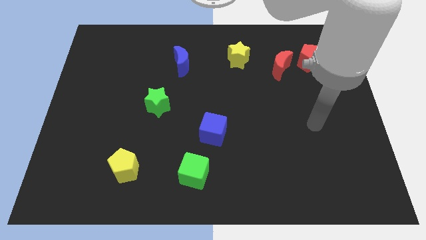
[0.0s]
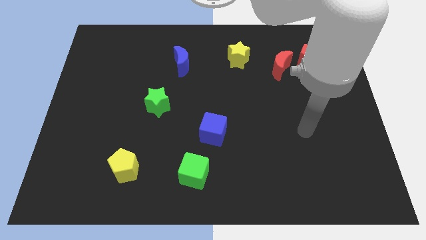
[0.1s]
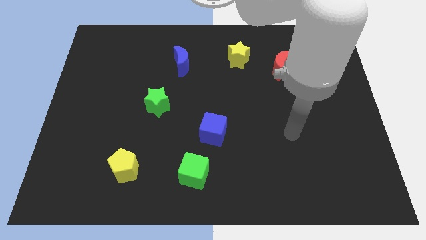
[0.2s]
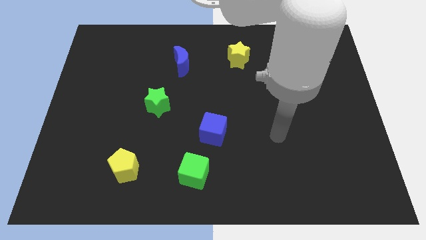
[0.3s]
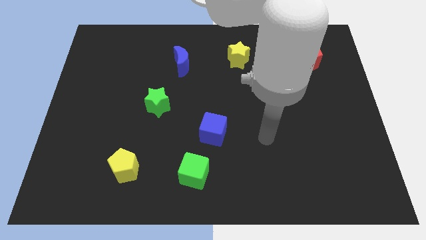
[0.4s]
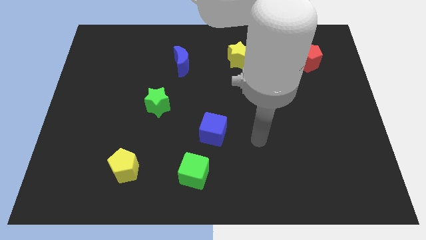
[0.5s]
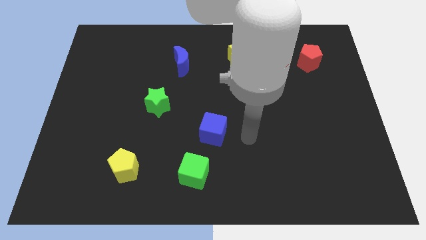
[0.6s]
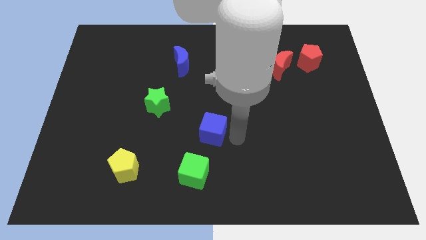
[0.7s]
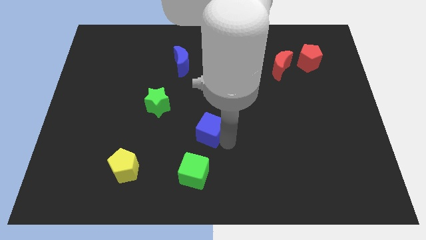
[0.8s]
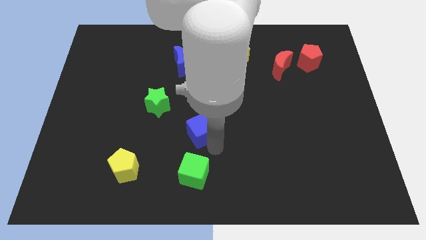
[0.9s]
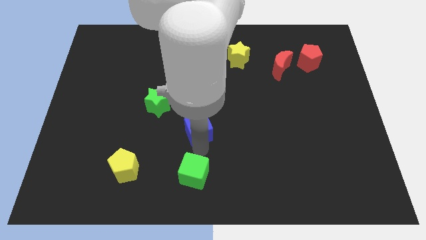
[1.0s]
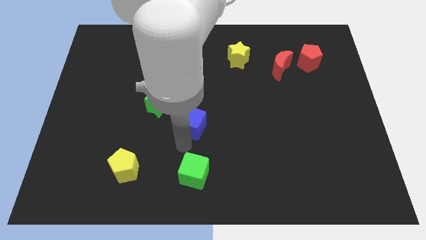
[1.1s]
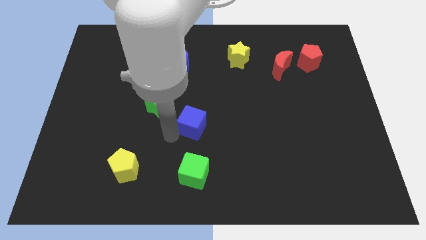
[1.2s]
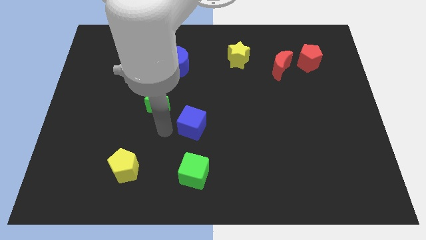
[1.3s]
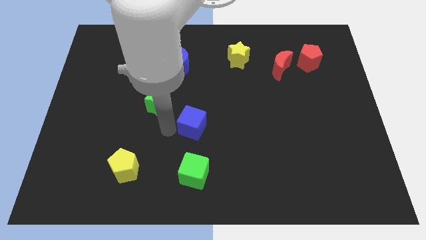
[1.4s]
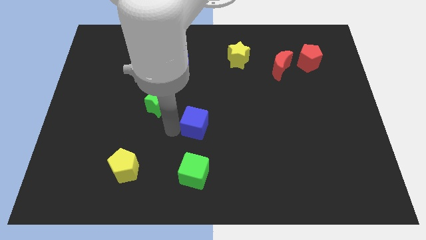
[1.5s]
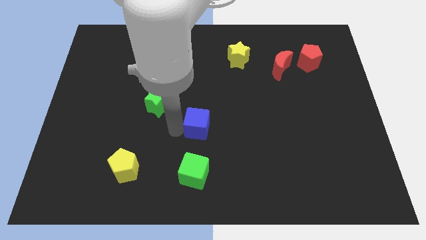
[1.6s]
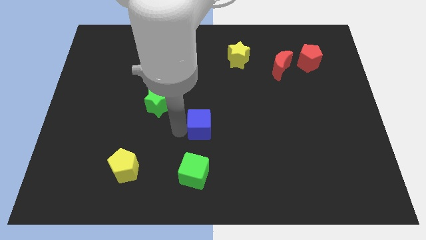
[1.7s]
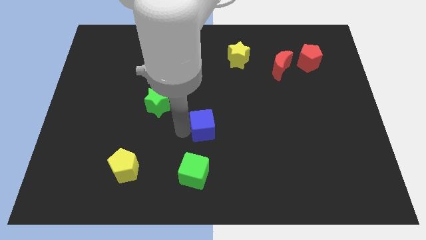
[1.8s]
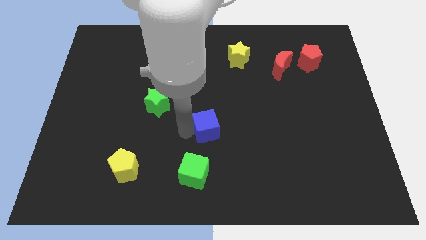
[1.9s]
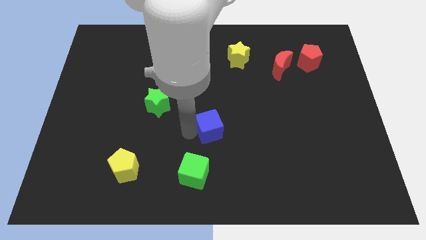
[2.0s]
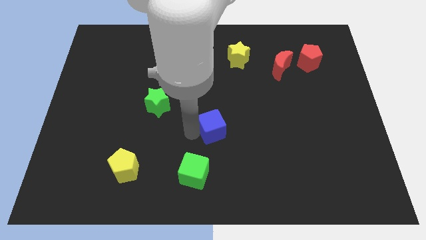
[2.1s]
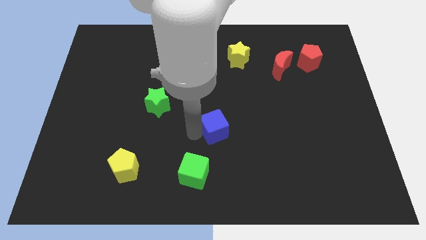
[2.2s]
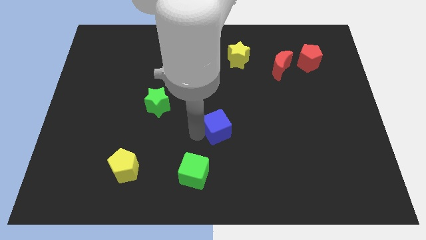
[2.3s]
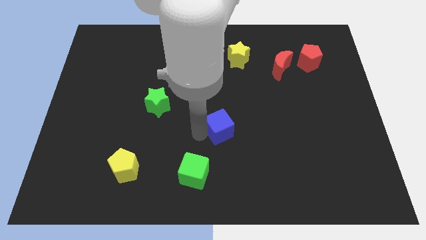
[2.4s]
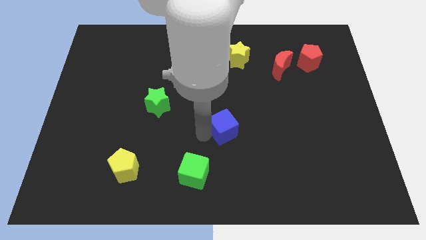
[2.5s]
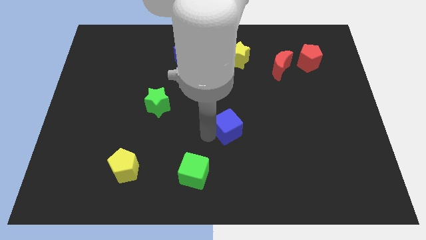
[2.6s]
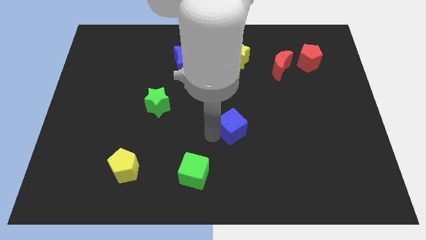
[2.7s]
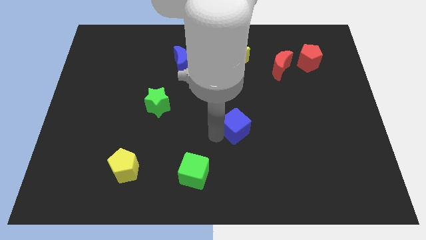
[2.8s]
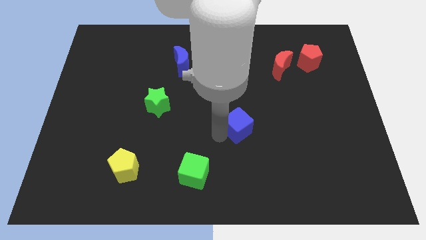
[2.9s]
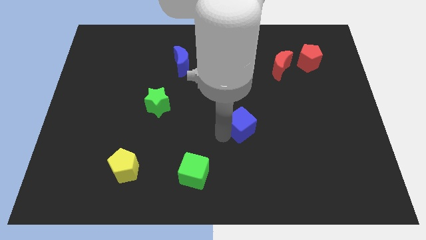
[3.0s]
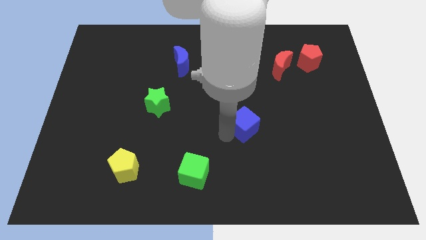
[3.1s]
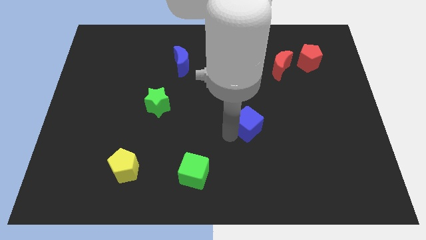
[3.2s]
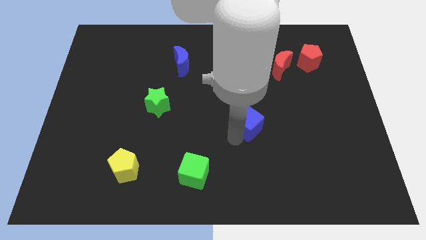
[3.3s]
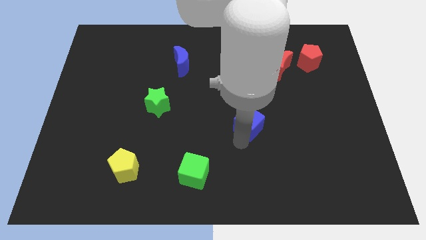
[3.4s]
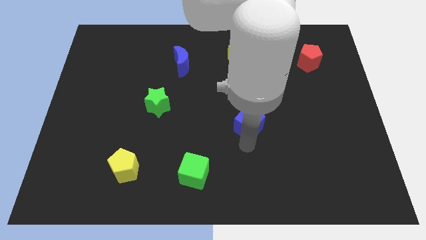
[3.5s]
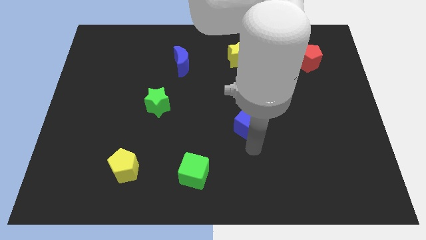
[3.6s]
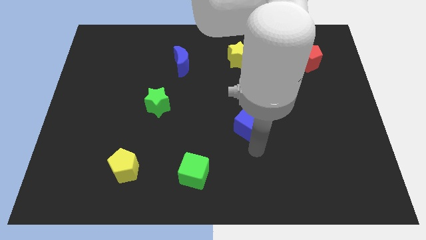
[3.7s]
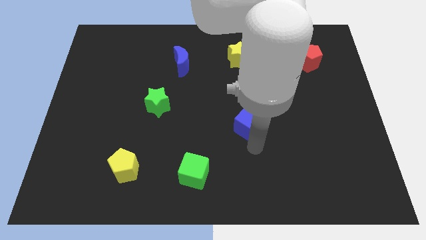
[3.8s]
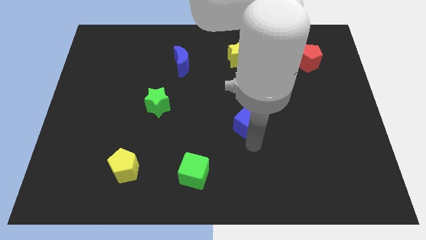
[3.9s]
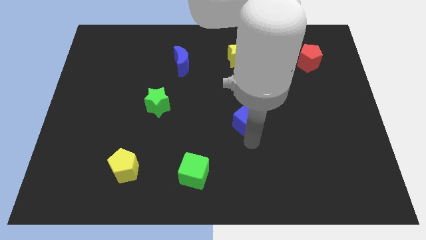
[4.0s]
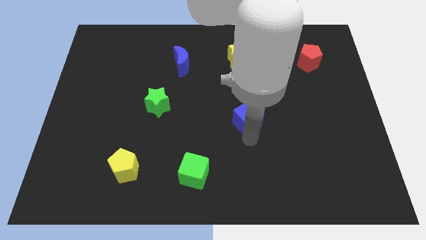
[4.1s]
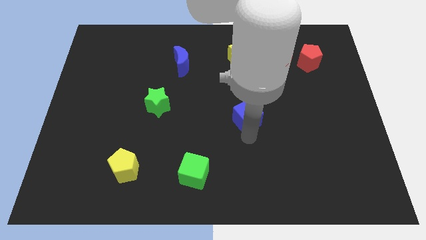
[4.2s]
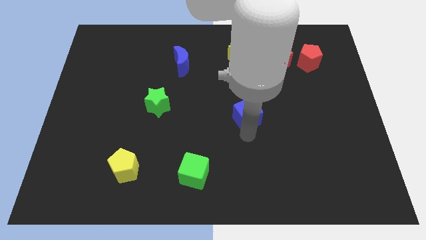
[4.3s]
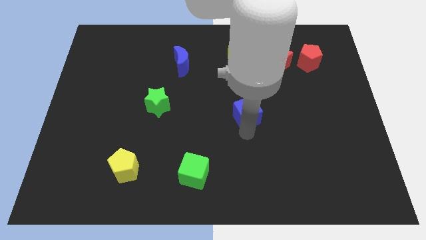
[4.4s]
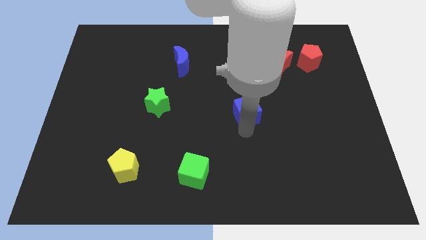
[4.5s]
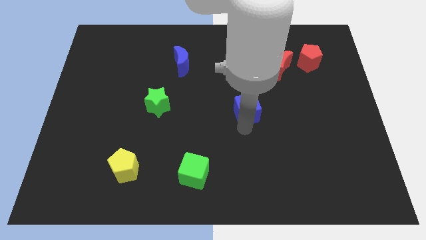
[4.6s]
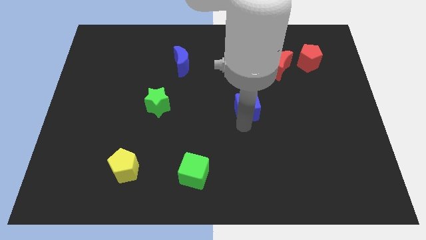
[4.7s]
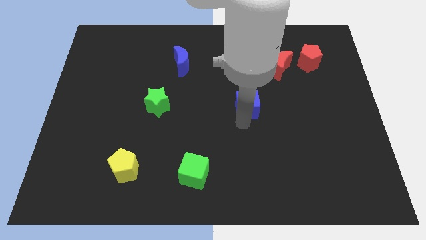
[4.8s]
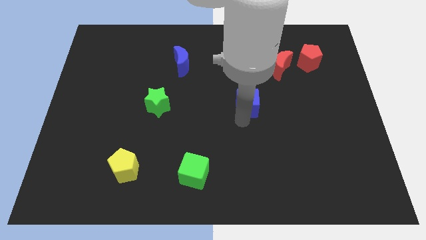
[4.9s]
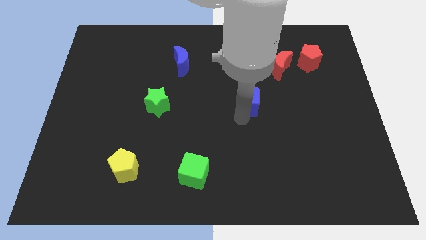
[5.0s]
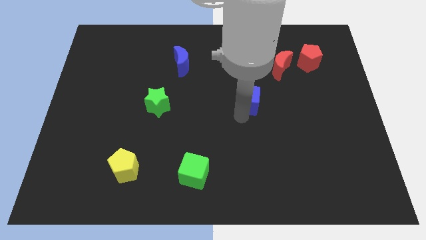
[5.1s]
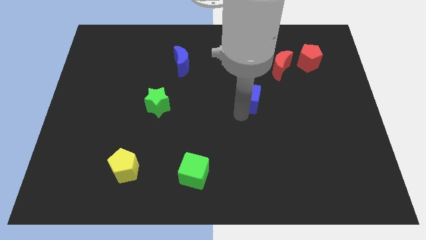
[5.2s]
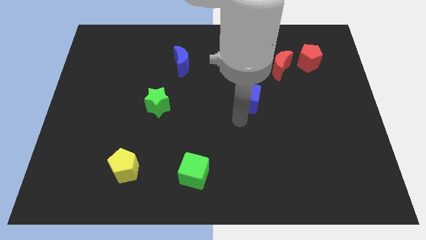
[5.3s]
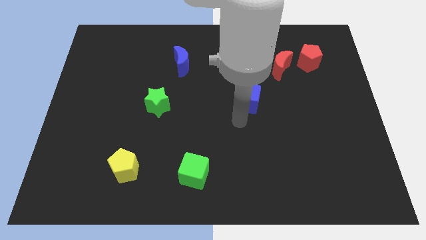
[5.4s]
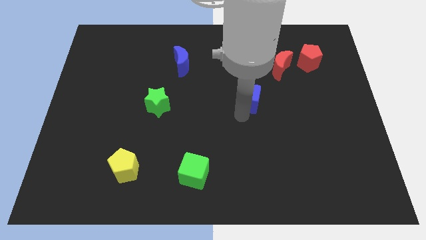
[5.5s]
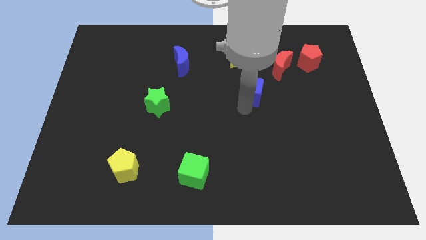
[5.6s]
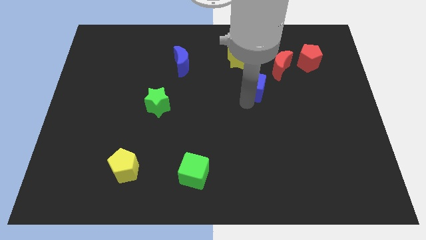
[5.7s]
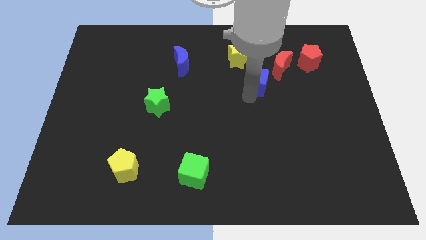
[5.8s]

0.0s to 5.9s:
put the blue cube to the bottom right of the yellow star

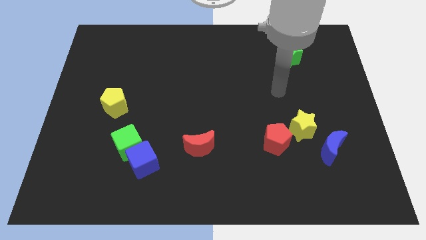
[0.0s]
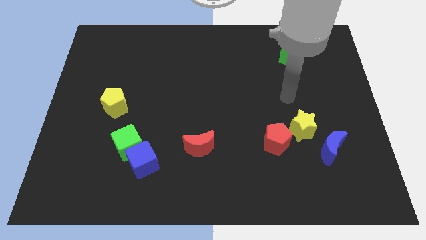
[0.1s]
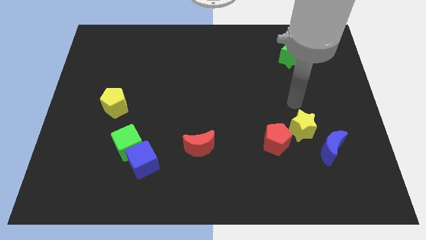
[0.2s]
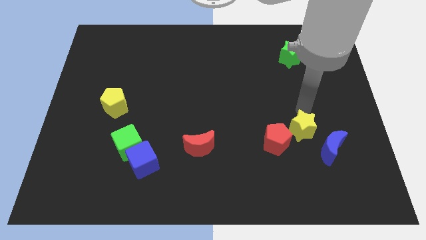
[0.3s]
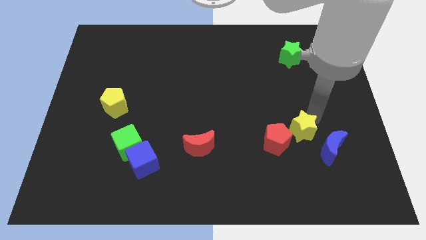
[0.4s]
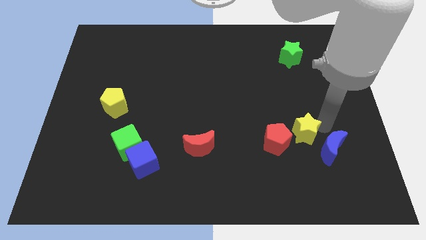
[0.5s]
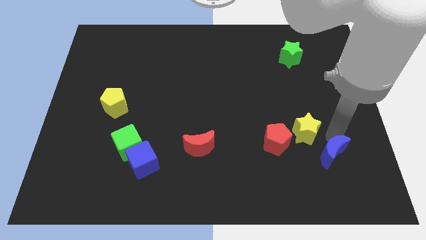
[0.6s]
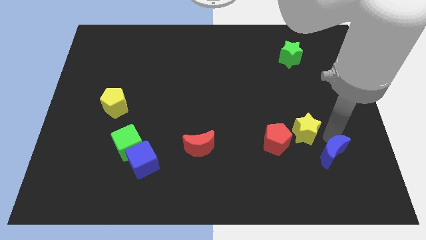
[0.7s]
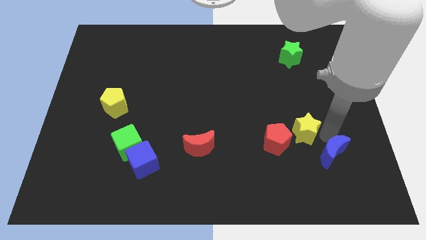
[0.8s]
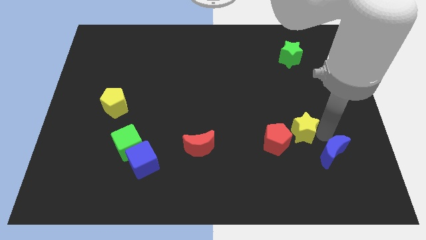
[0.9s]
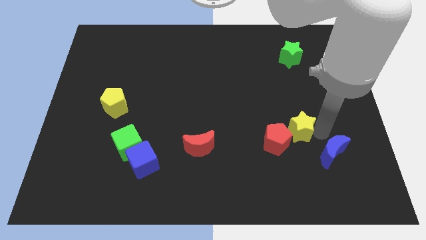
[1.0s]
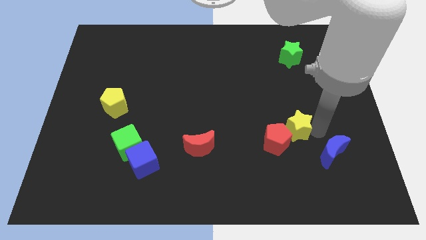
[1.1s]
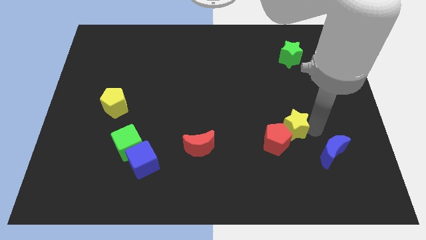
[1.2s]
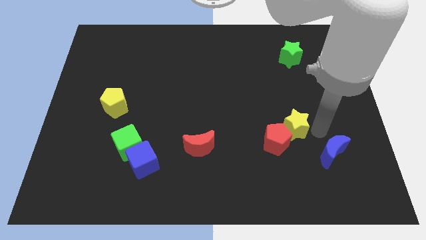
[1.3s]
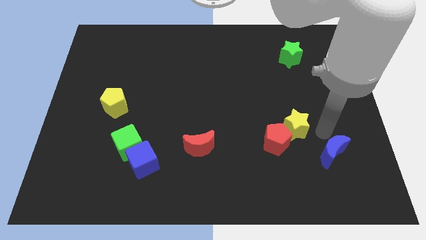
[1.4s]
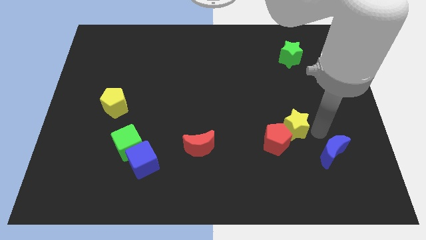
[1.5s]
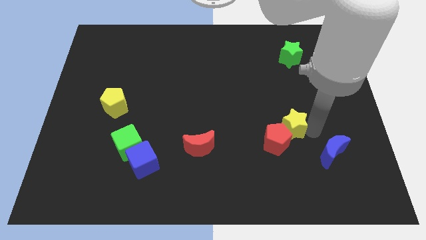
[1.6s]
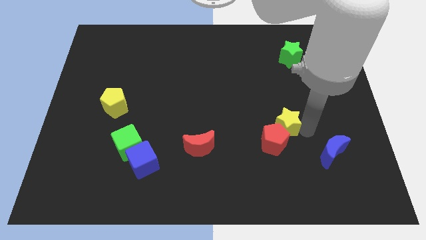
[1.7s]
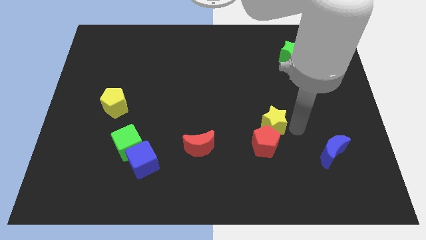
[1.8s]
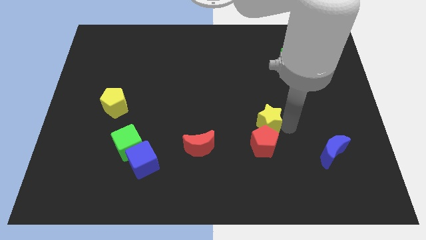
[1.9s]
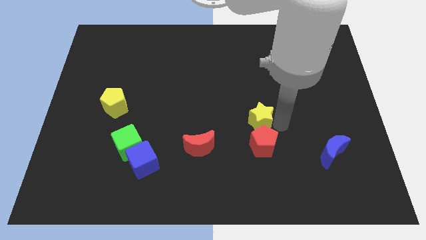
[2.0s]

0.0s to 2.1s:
move the yellow star diagonally up and to the left of the red pentagon
